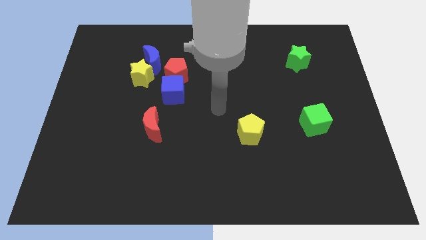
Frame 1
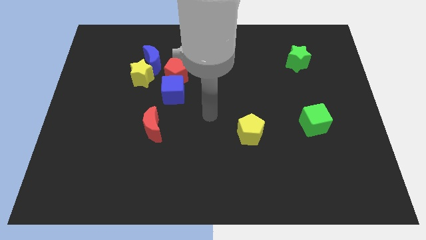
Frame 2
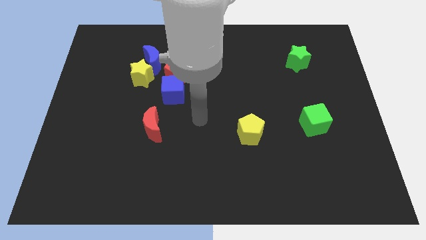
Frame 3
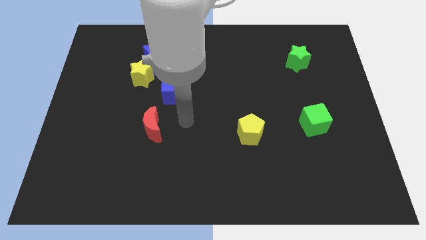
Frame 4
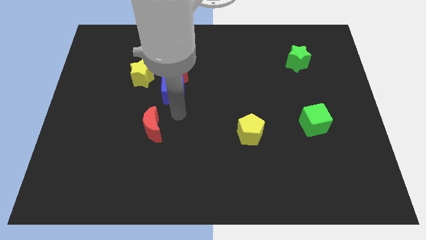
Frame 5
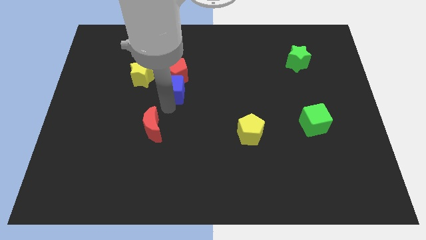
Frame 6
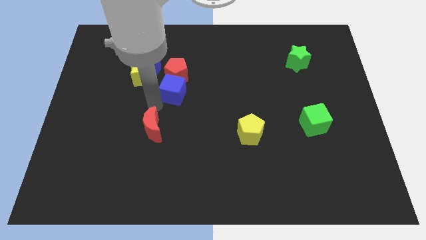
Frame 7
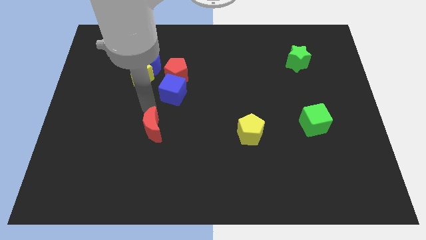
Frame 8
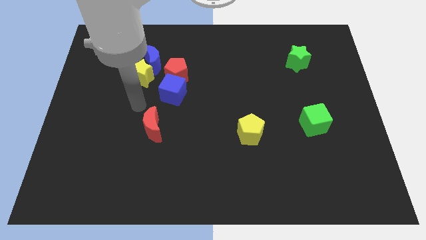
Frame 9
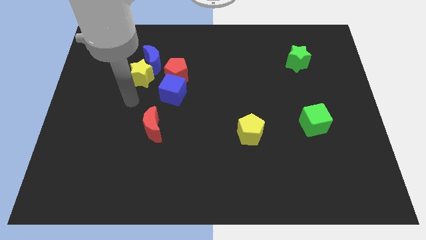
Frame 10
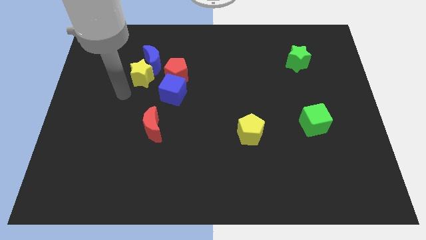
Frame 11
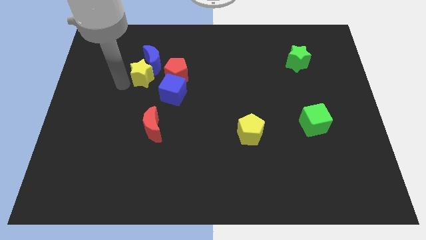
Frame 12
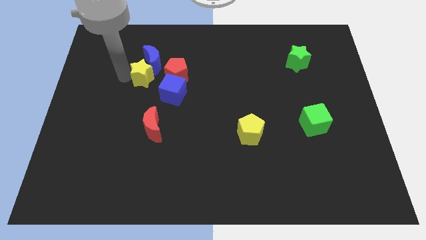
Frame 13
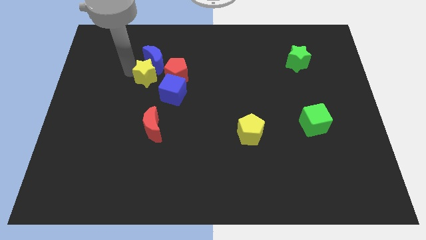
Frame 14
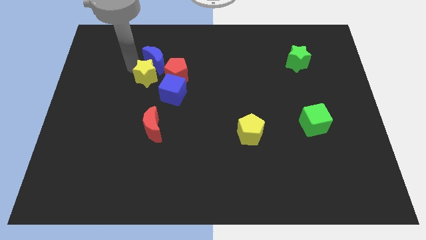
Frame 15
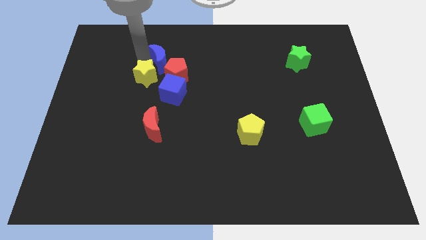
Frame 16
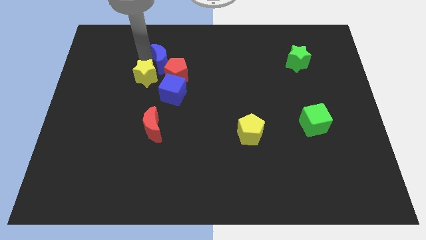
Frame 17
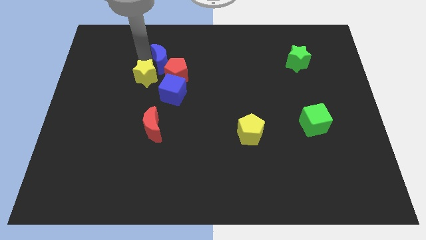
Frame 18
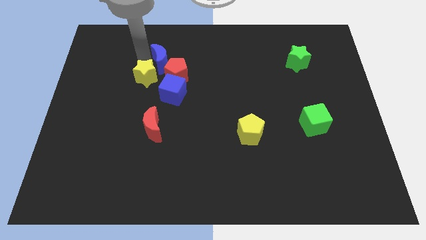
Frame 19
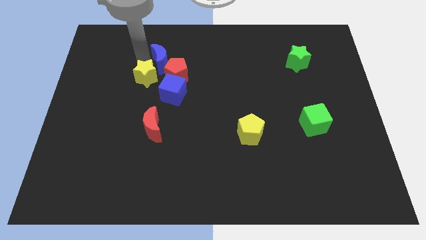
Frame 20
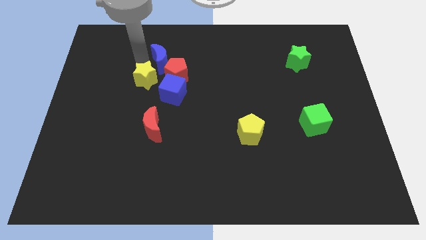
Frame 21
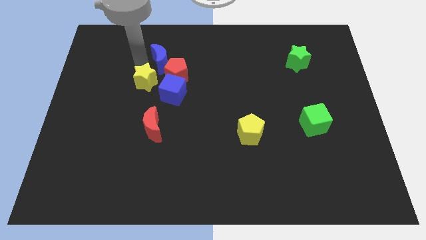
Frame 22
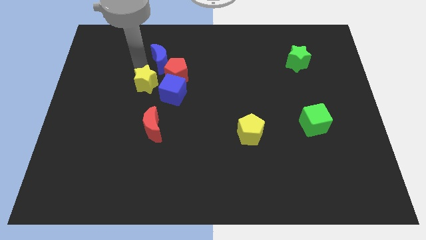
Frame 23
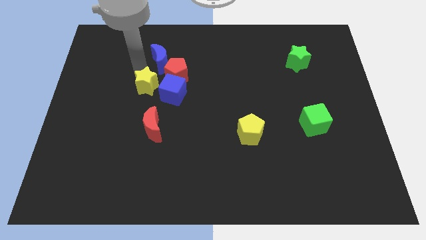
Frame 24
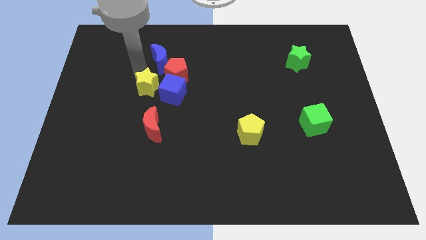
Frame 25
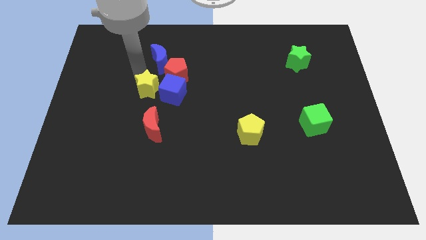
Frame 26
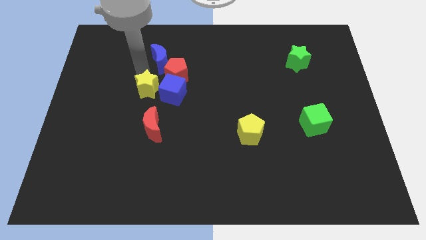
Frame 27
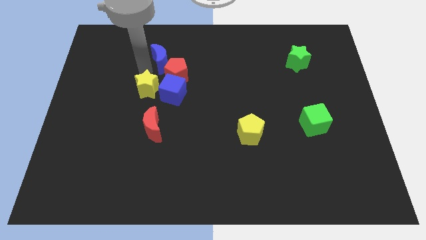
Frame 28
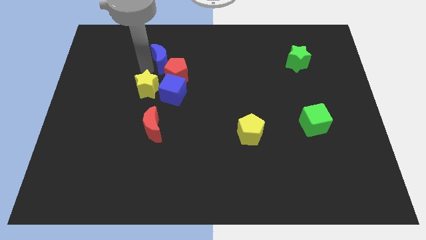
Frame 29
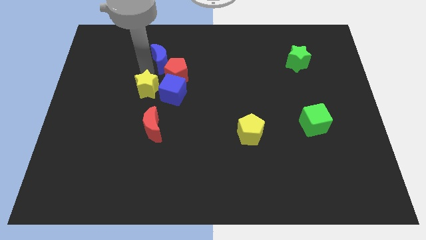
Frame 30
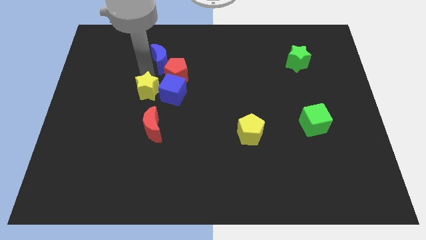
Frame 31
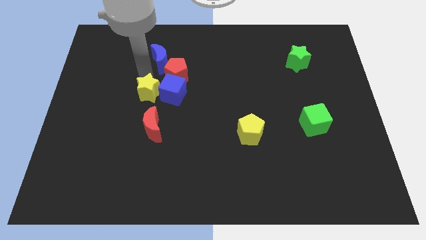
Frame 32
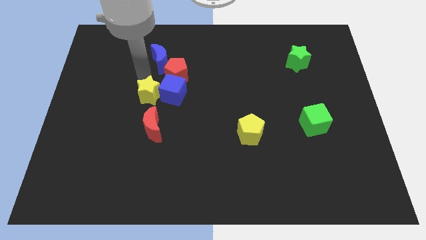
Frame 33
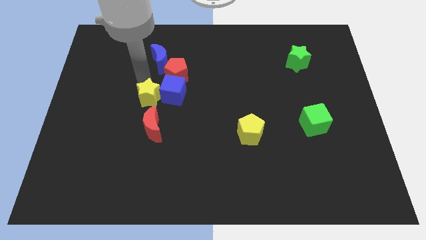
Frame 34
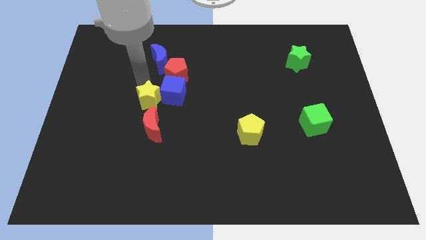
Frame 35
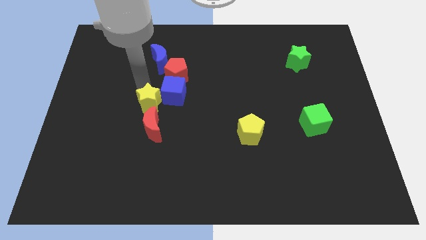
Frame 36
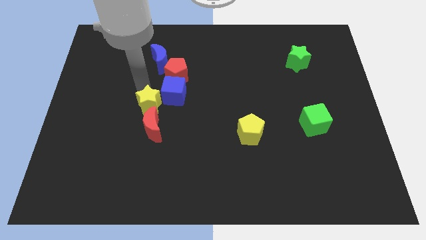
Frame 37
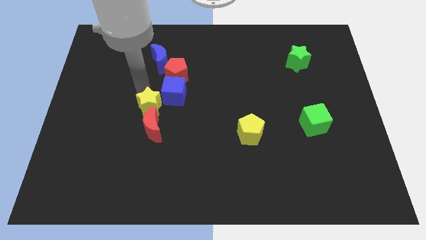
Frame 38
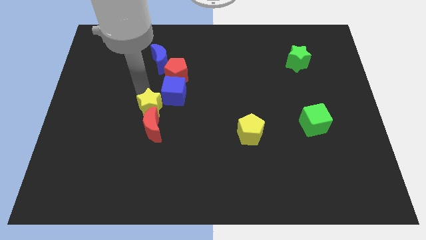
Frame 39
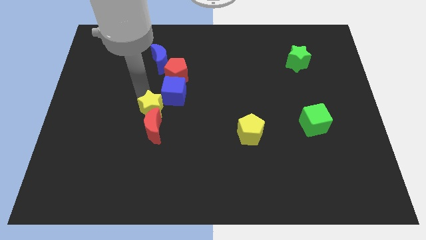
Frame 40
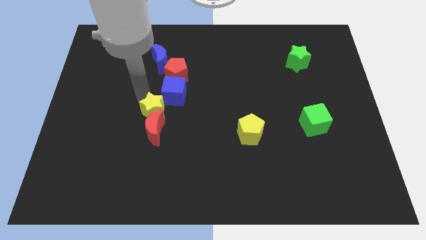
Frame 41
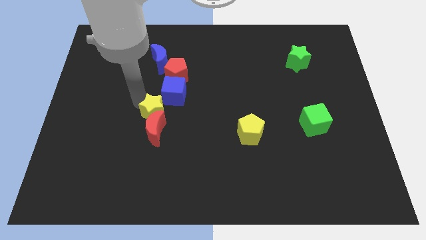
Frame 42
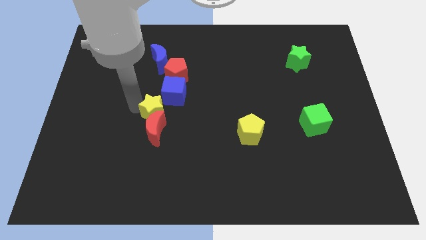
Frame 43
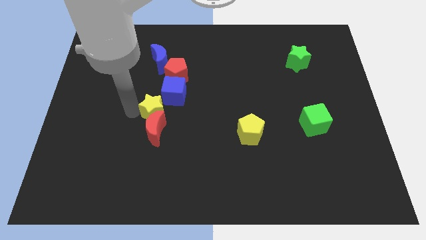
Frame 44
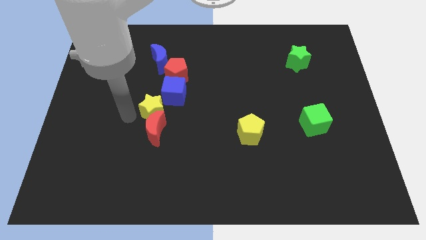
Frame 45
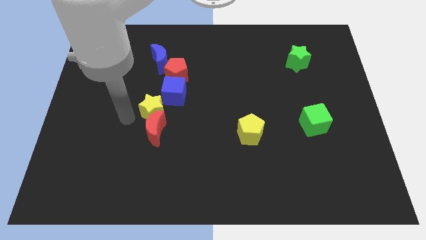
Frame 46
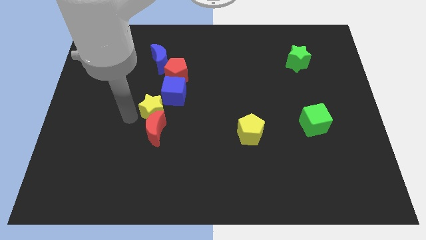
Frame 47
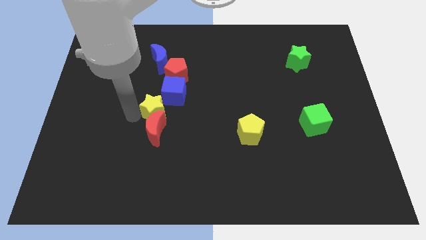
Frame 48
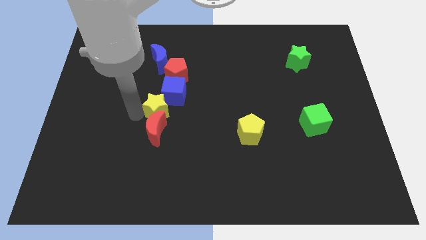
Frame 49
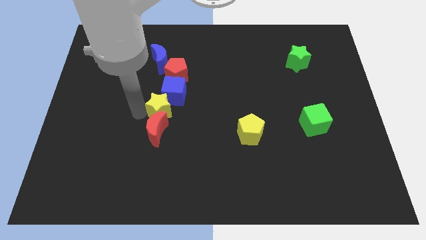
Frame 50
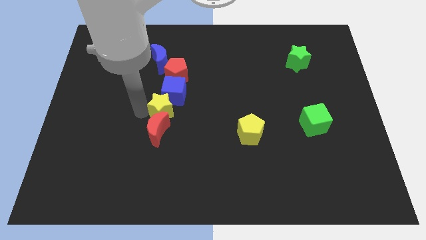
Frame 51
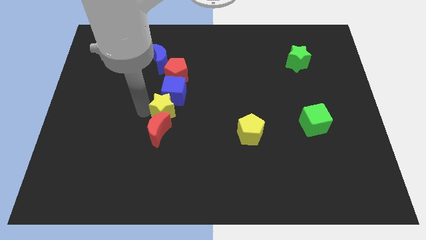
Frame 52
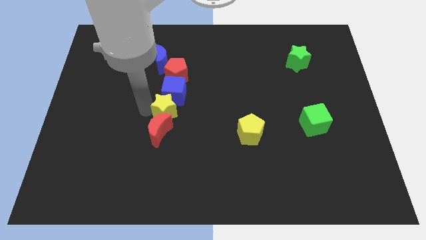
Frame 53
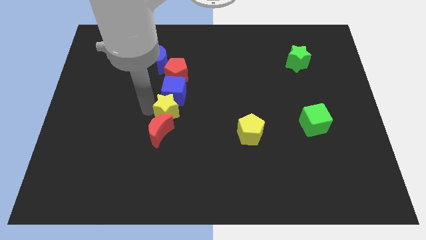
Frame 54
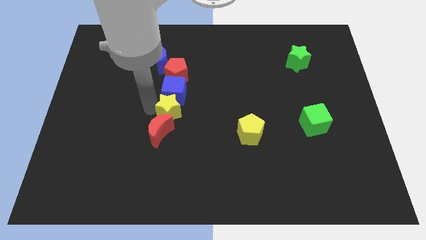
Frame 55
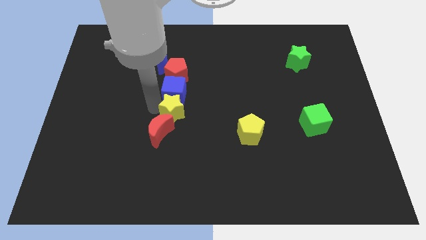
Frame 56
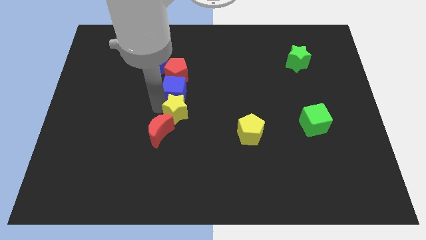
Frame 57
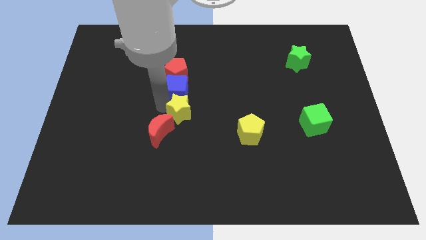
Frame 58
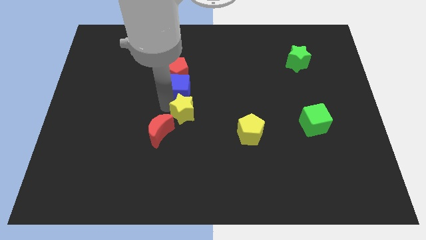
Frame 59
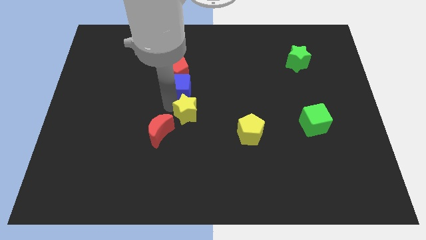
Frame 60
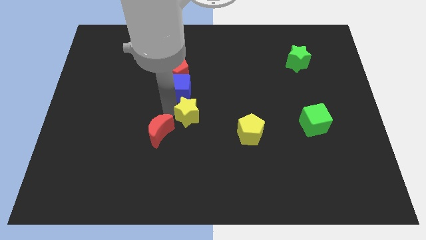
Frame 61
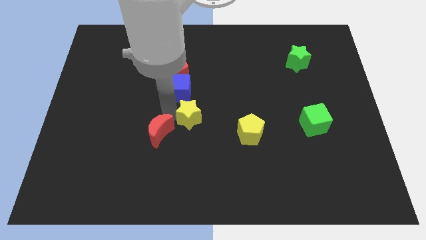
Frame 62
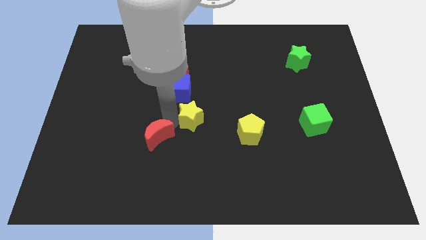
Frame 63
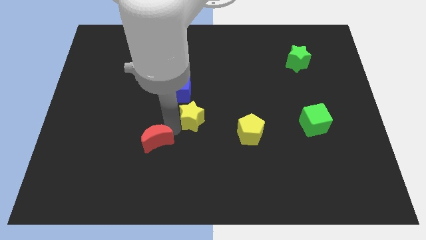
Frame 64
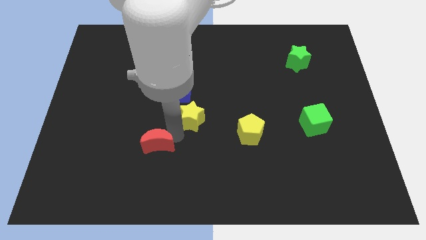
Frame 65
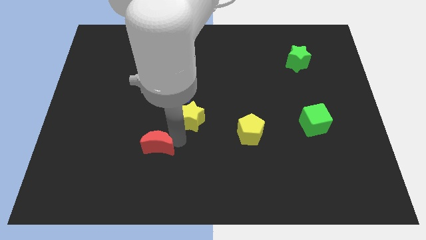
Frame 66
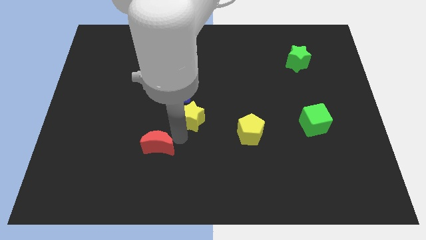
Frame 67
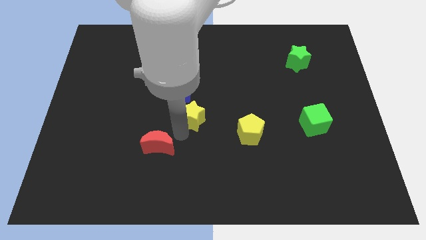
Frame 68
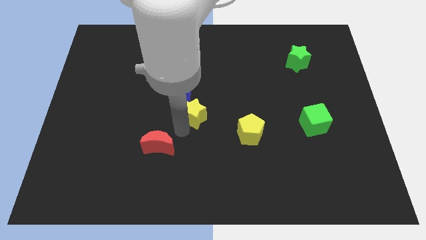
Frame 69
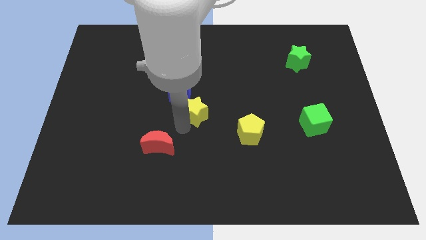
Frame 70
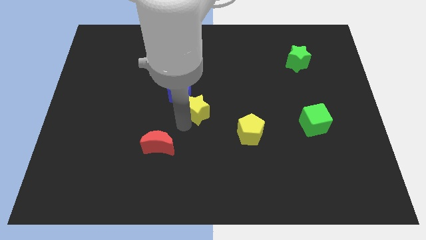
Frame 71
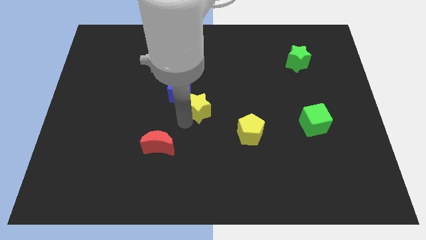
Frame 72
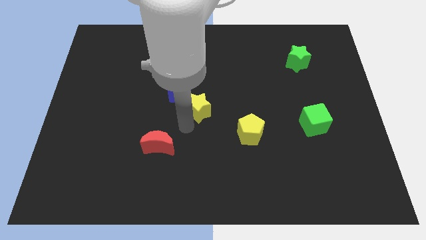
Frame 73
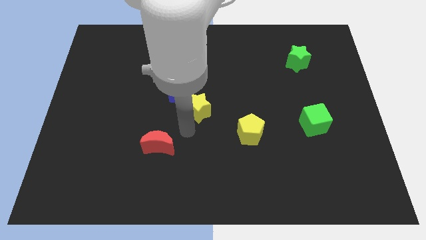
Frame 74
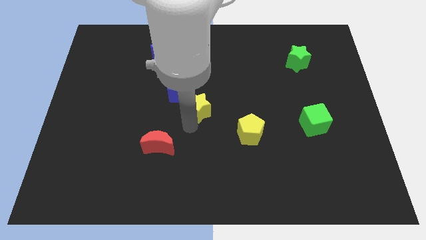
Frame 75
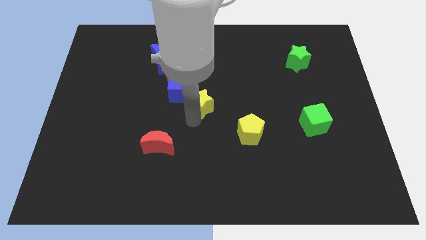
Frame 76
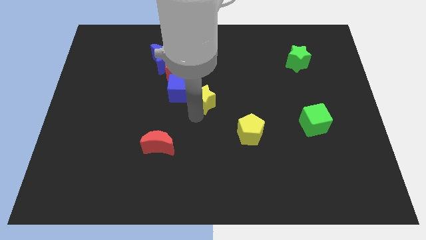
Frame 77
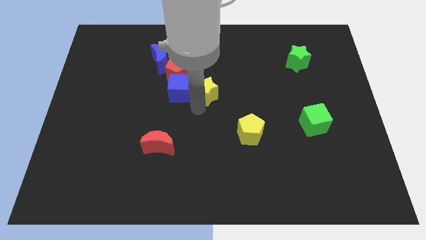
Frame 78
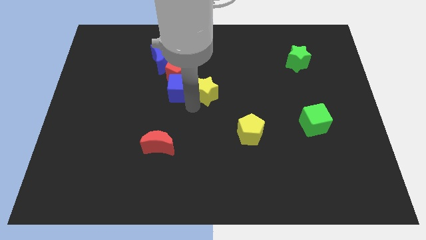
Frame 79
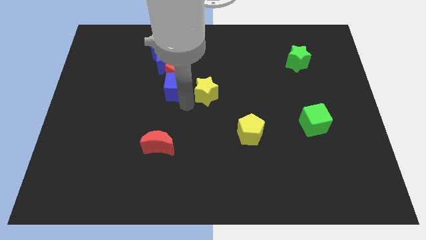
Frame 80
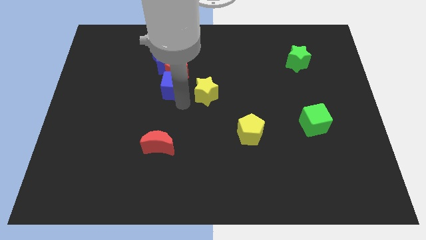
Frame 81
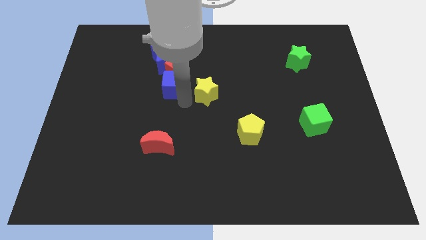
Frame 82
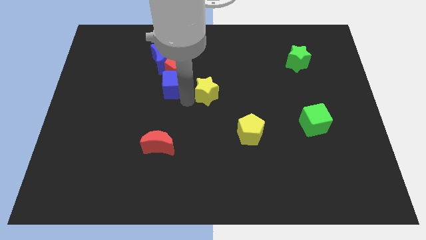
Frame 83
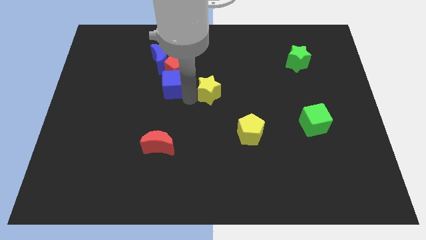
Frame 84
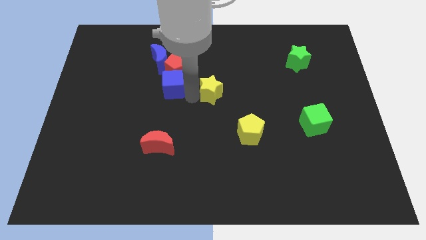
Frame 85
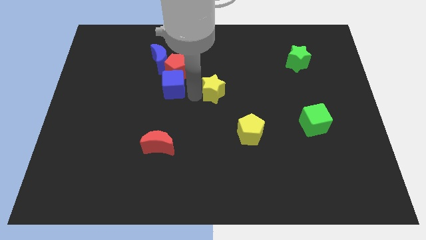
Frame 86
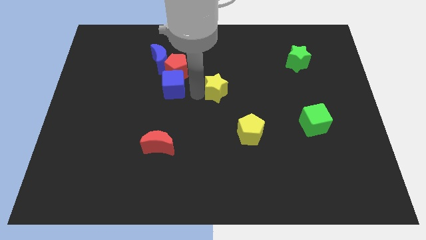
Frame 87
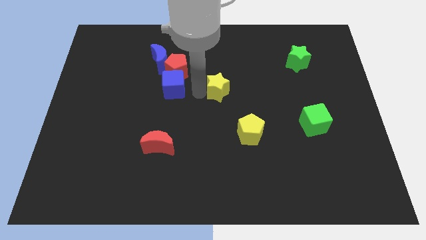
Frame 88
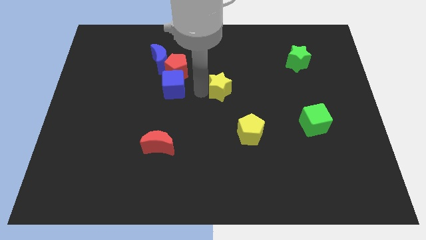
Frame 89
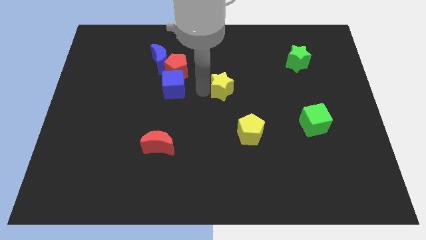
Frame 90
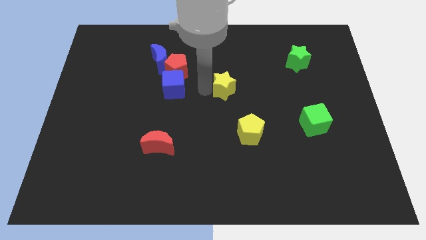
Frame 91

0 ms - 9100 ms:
slide the yellow star to the right
